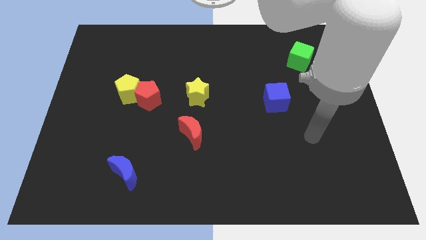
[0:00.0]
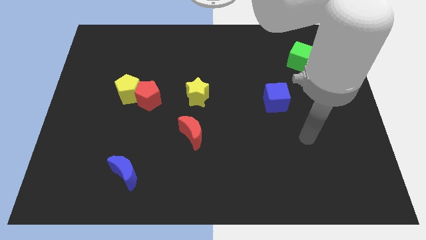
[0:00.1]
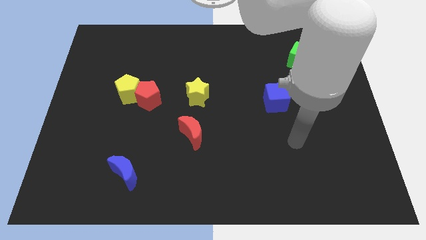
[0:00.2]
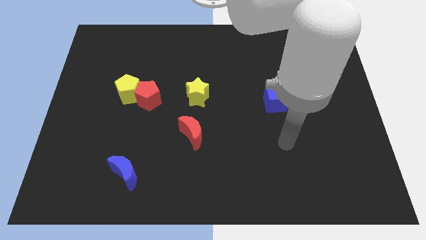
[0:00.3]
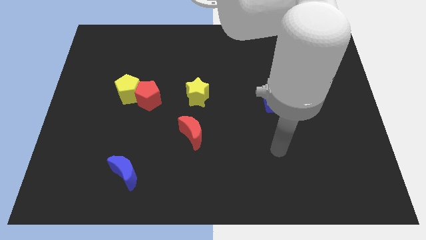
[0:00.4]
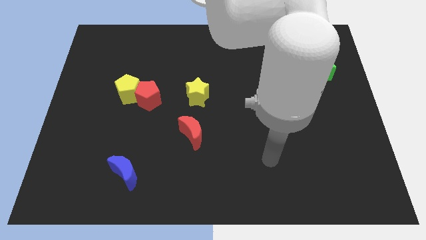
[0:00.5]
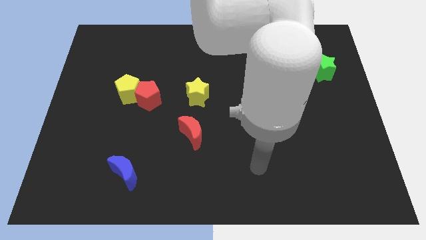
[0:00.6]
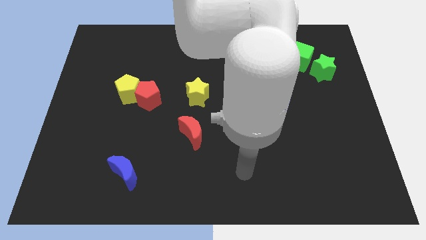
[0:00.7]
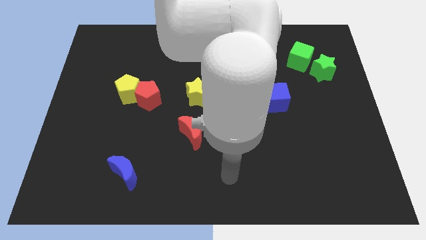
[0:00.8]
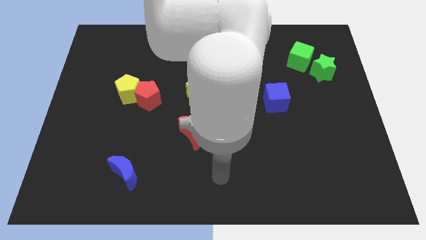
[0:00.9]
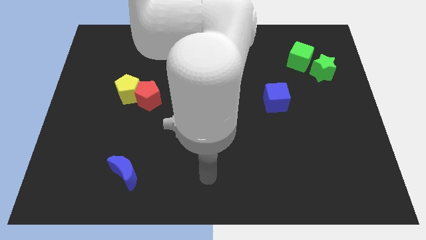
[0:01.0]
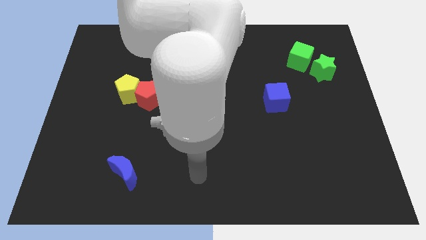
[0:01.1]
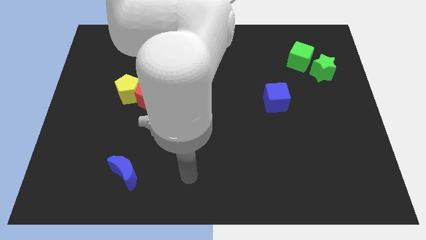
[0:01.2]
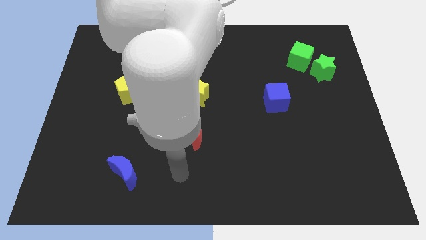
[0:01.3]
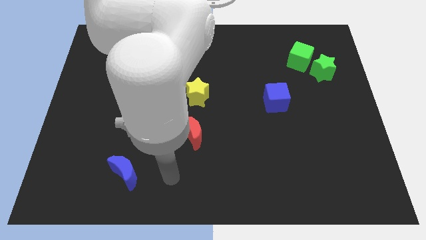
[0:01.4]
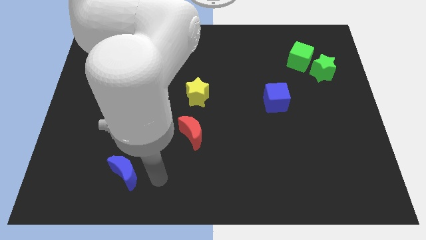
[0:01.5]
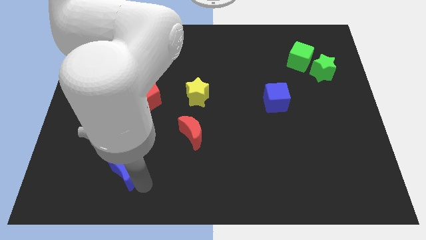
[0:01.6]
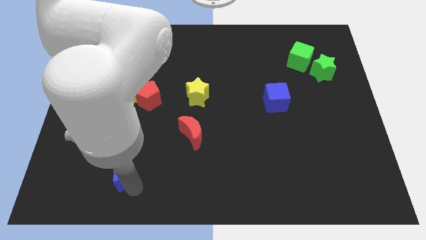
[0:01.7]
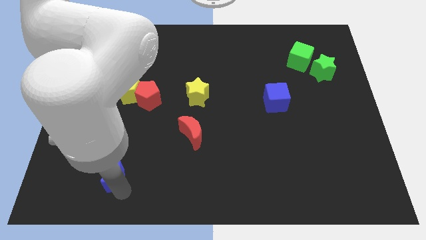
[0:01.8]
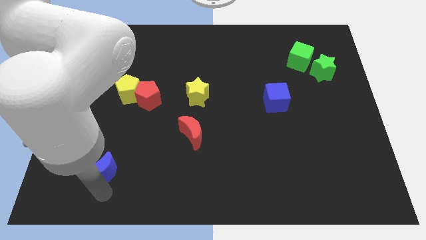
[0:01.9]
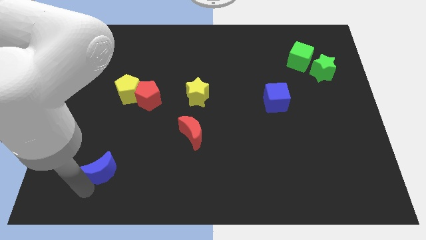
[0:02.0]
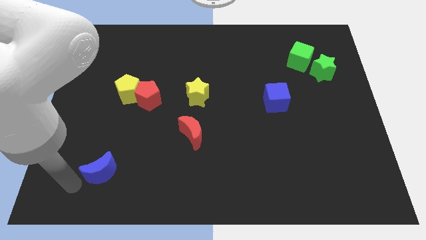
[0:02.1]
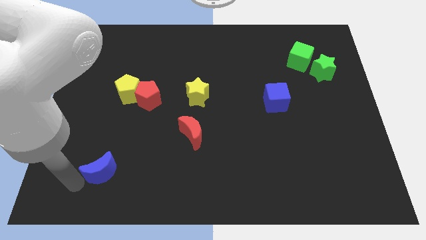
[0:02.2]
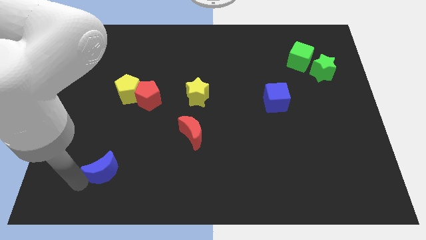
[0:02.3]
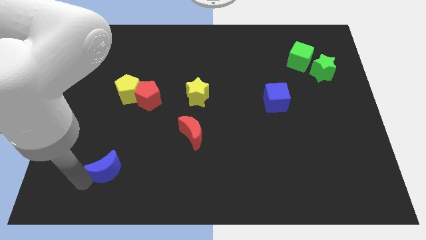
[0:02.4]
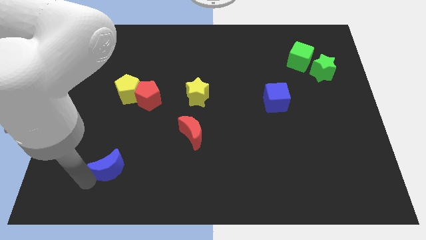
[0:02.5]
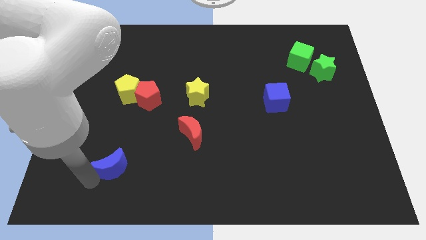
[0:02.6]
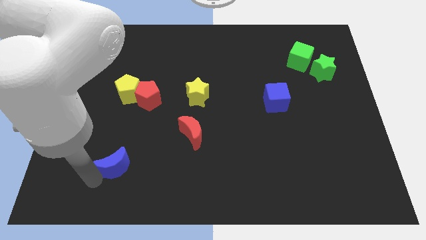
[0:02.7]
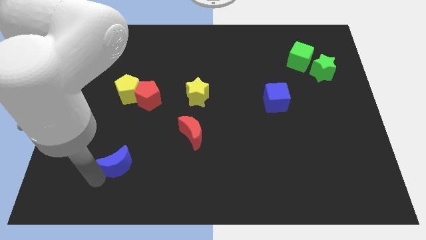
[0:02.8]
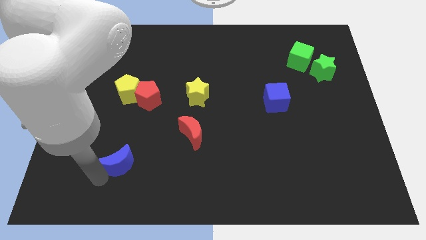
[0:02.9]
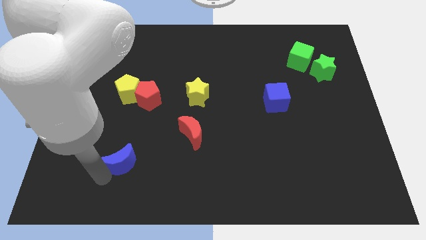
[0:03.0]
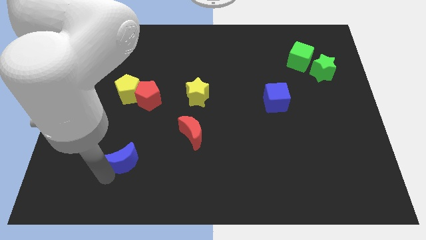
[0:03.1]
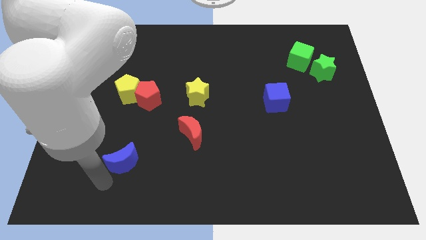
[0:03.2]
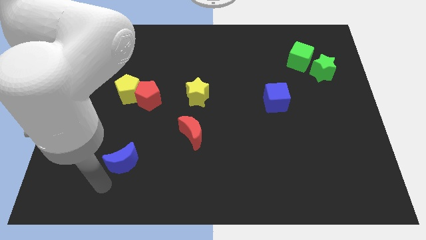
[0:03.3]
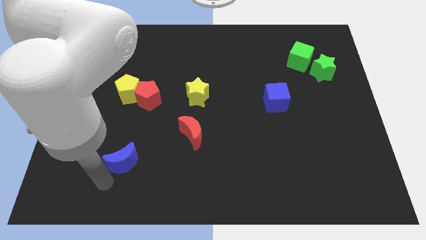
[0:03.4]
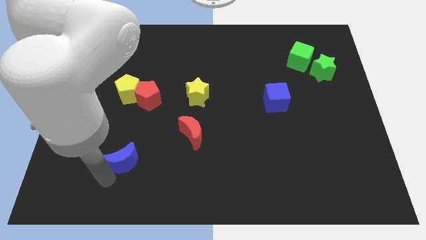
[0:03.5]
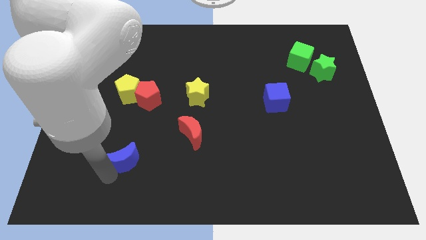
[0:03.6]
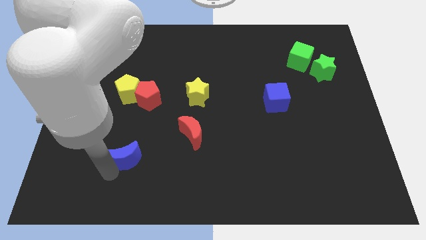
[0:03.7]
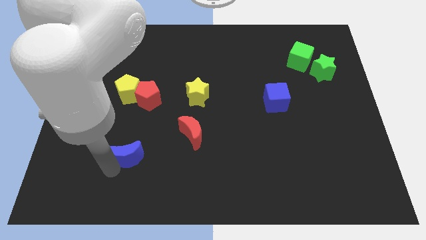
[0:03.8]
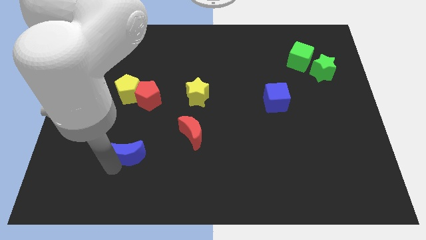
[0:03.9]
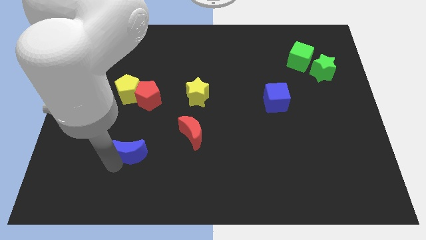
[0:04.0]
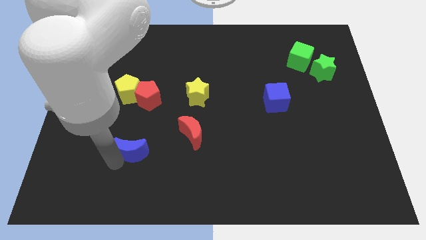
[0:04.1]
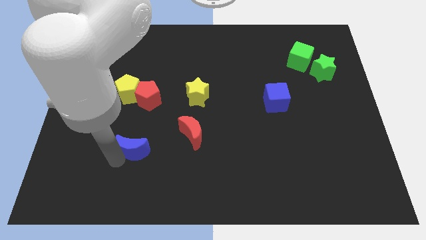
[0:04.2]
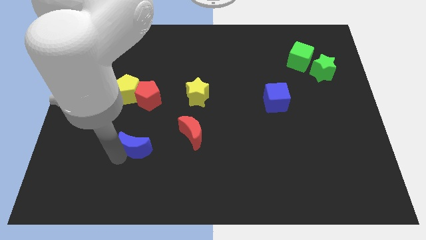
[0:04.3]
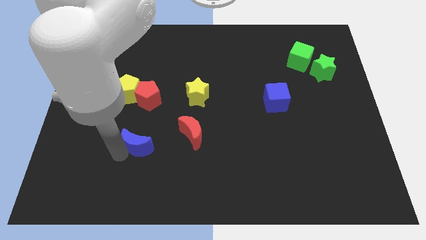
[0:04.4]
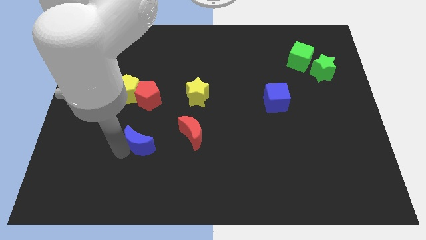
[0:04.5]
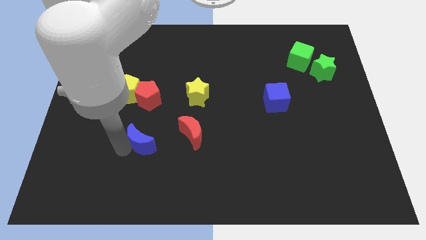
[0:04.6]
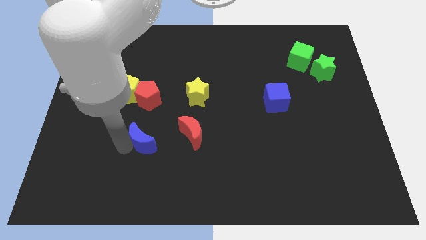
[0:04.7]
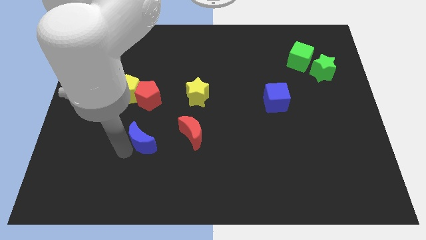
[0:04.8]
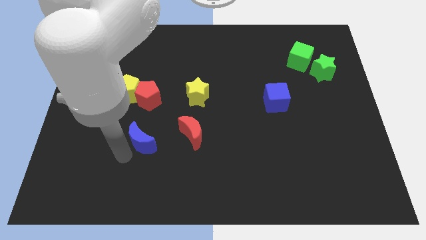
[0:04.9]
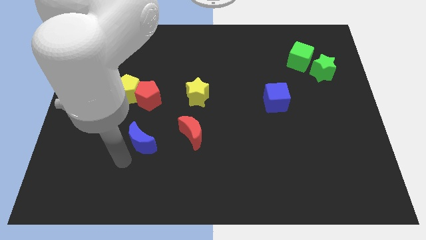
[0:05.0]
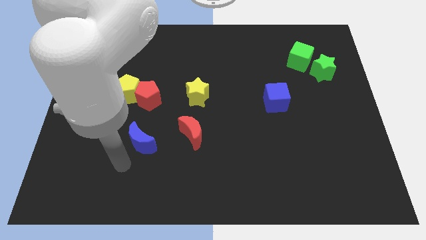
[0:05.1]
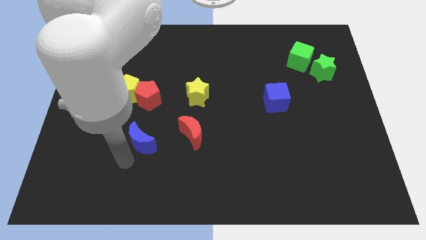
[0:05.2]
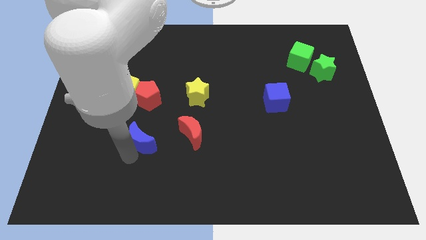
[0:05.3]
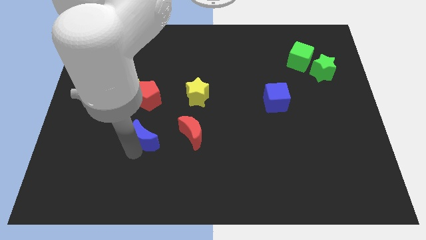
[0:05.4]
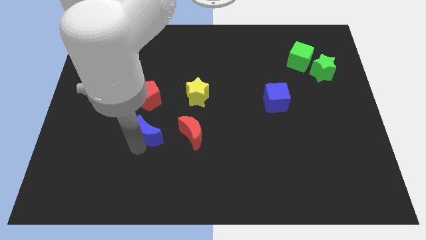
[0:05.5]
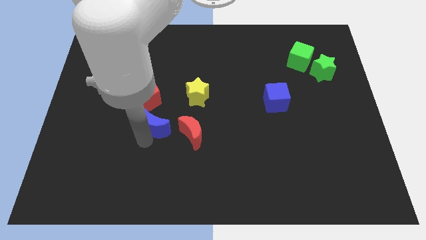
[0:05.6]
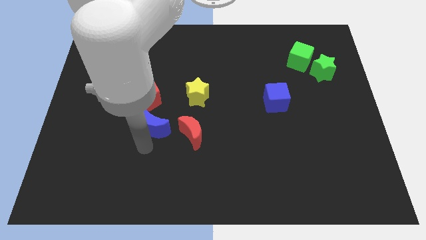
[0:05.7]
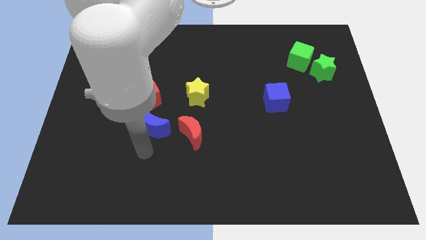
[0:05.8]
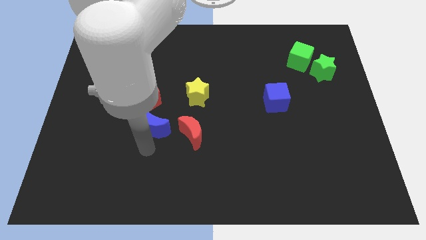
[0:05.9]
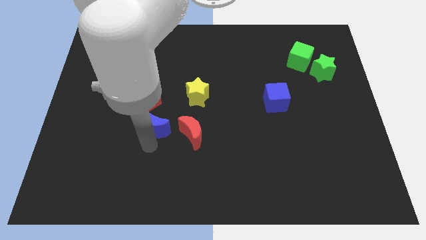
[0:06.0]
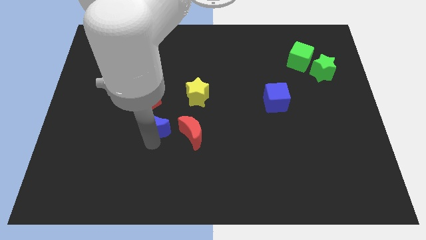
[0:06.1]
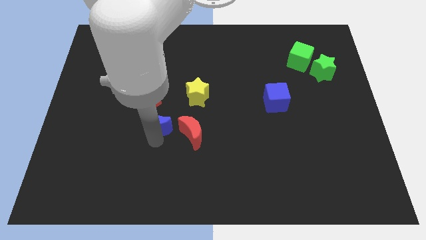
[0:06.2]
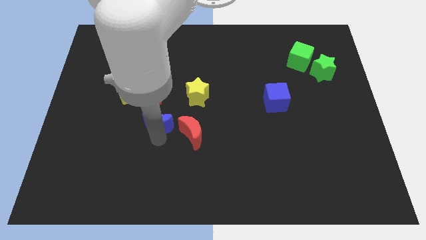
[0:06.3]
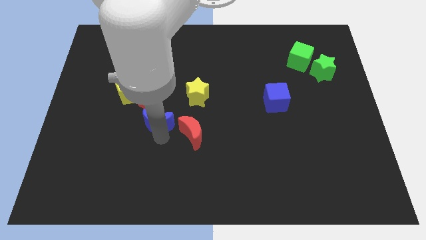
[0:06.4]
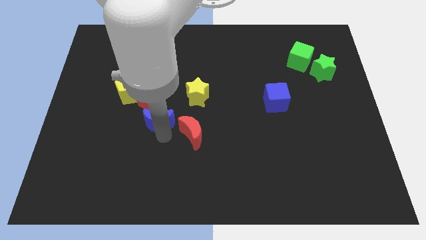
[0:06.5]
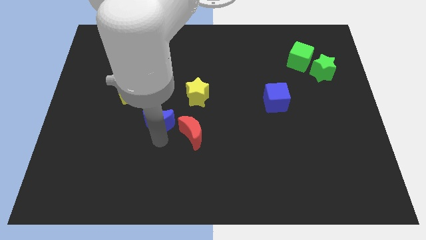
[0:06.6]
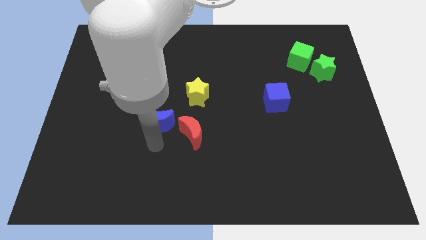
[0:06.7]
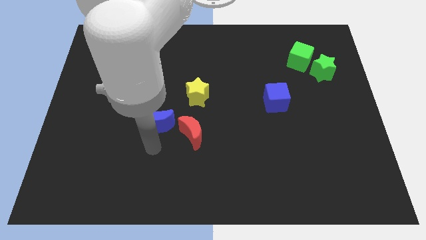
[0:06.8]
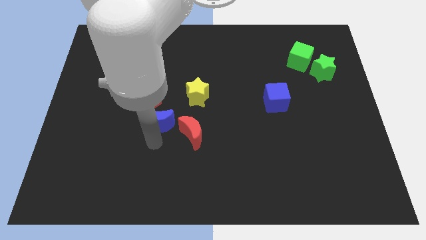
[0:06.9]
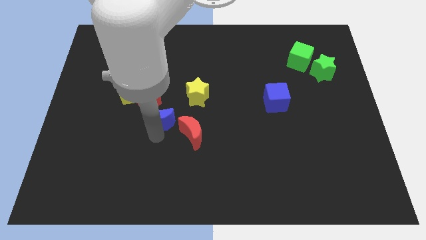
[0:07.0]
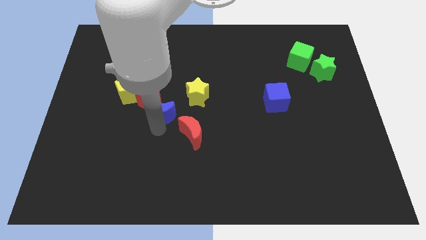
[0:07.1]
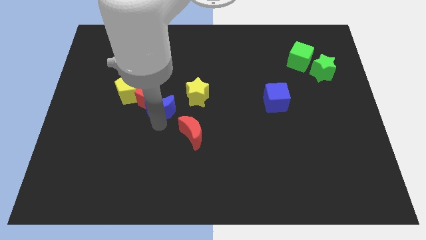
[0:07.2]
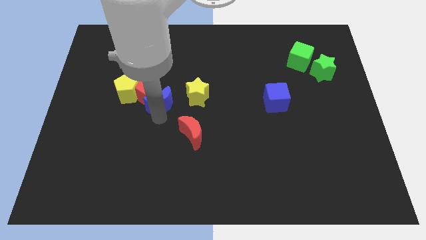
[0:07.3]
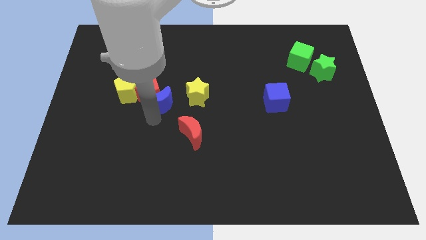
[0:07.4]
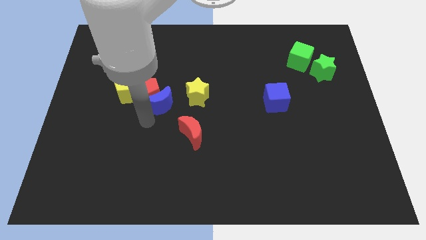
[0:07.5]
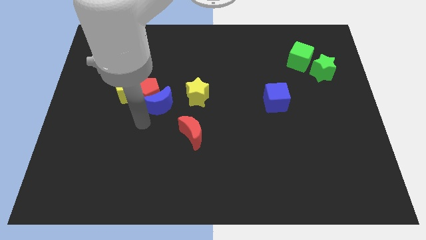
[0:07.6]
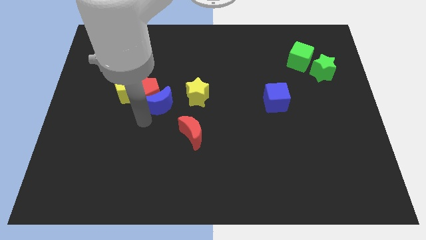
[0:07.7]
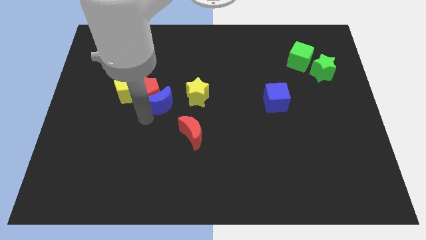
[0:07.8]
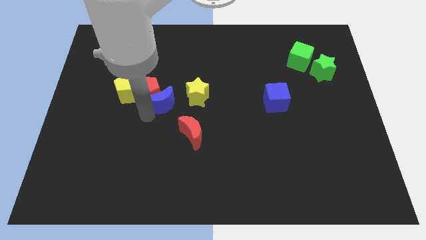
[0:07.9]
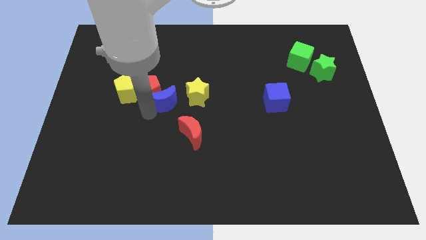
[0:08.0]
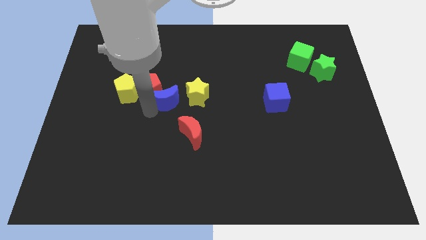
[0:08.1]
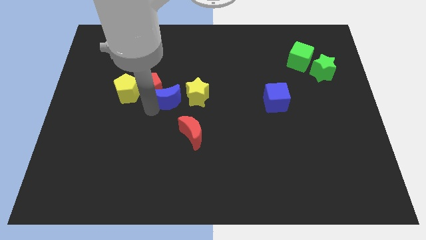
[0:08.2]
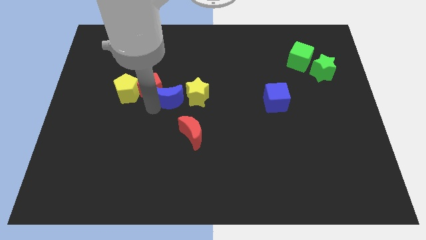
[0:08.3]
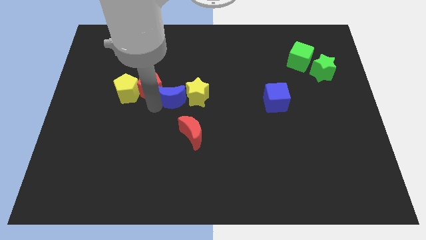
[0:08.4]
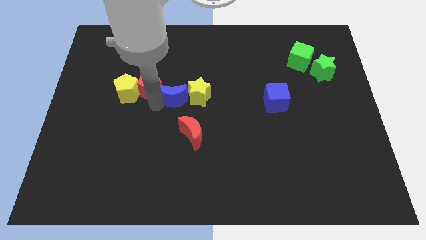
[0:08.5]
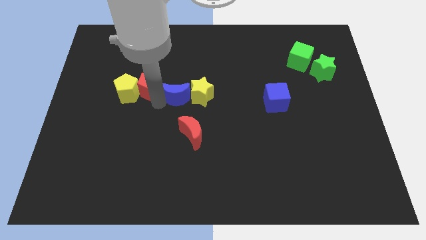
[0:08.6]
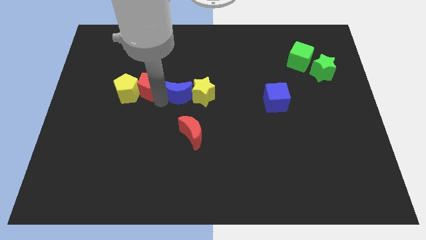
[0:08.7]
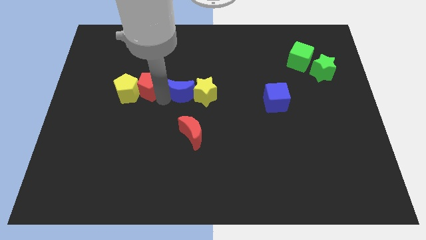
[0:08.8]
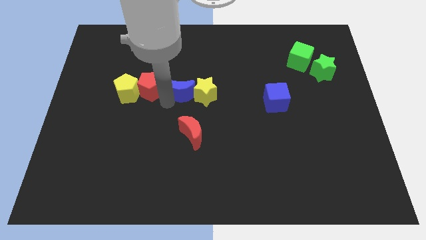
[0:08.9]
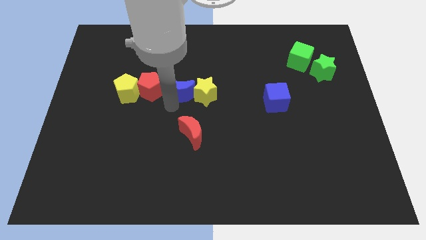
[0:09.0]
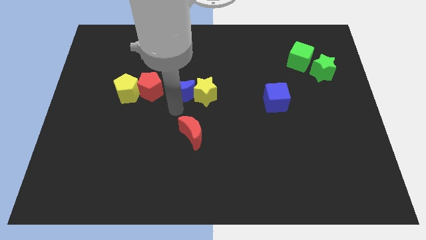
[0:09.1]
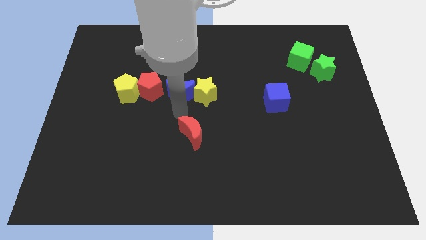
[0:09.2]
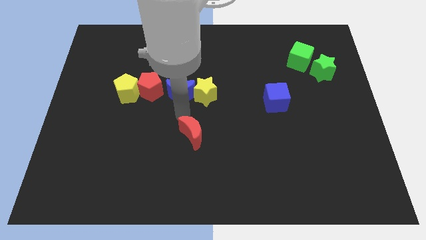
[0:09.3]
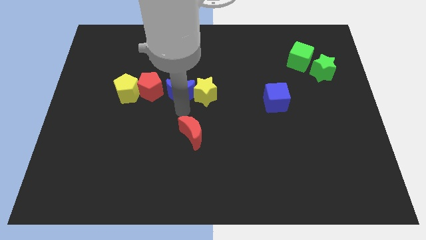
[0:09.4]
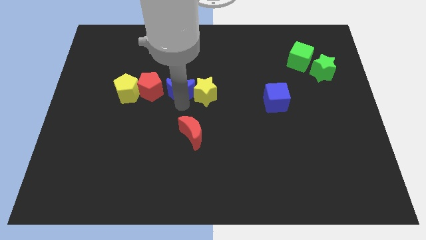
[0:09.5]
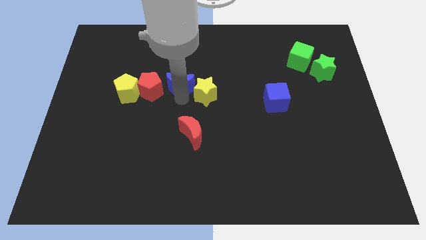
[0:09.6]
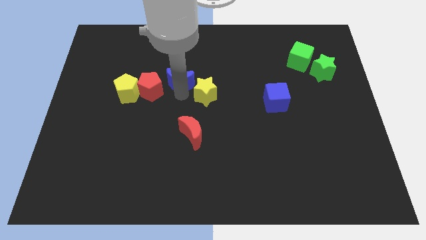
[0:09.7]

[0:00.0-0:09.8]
push the blue moon up
